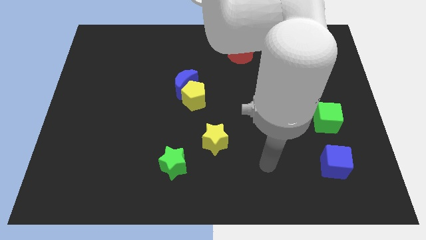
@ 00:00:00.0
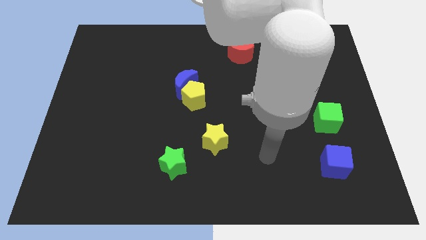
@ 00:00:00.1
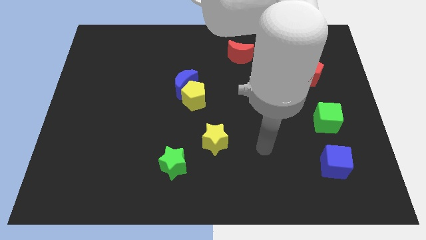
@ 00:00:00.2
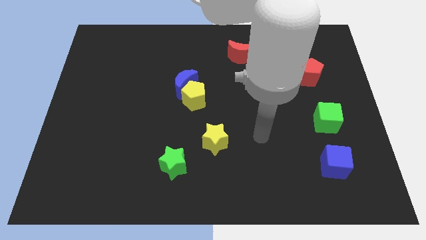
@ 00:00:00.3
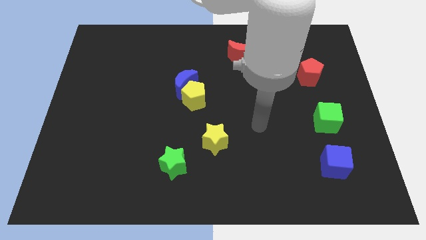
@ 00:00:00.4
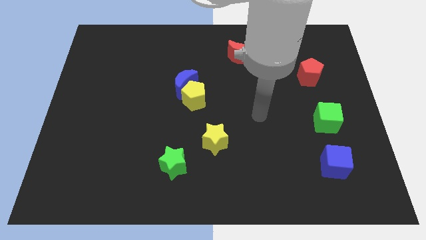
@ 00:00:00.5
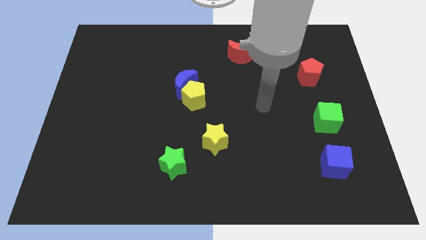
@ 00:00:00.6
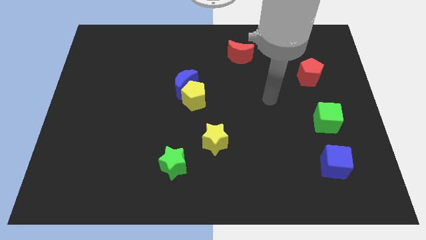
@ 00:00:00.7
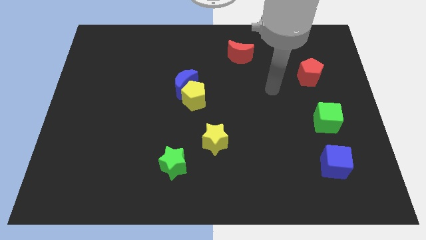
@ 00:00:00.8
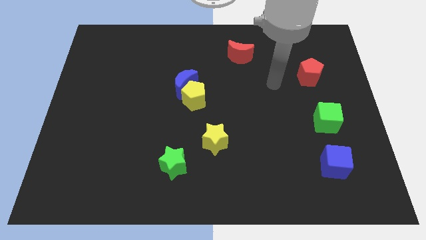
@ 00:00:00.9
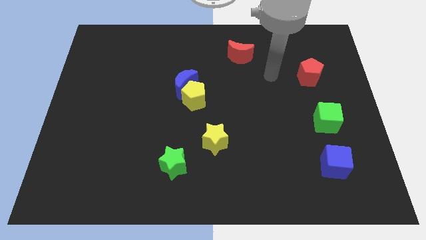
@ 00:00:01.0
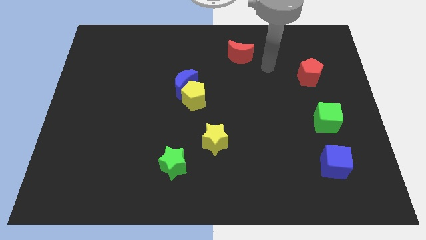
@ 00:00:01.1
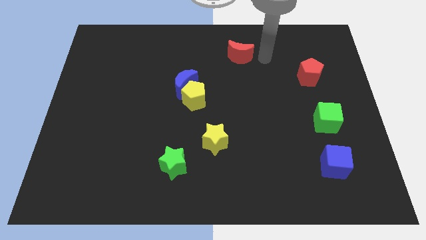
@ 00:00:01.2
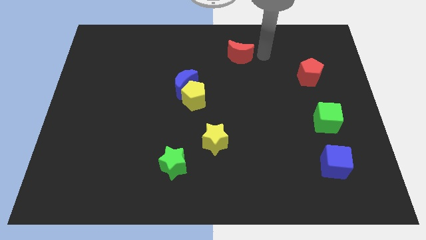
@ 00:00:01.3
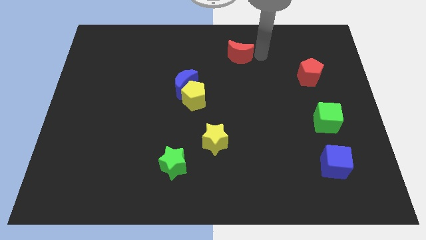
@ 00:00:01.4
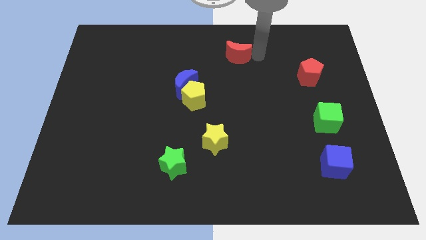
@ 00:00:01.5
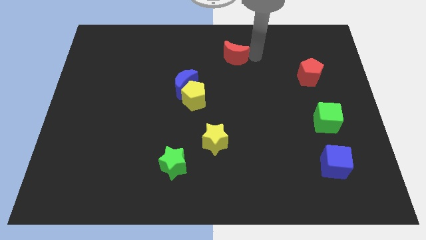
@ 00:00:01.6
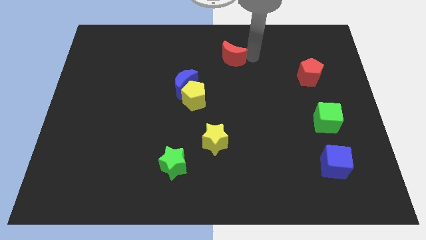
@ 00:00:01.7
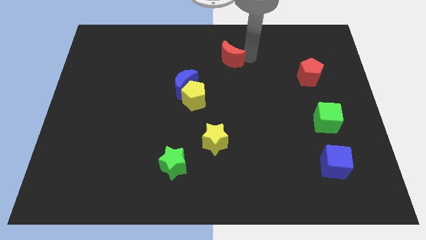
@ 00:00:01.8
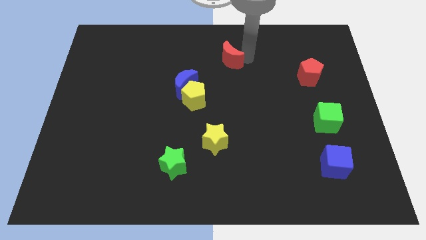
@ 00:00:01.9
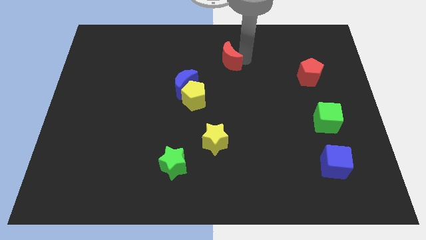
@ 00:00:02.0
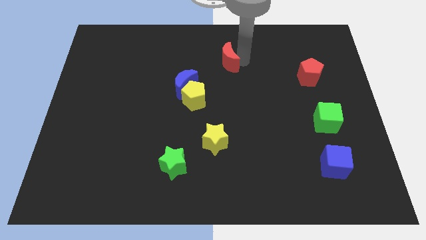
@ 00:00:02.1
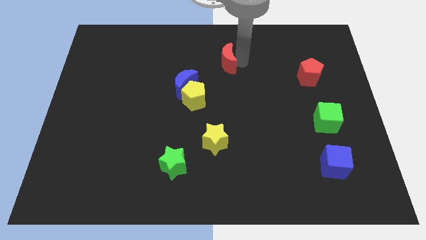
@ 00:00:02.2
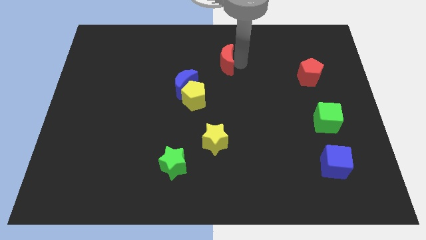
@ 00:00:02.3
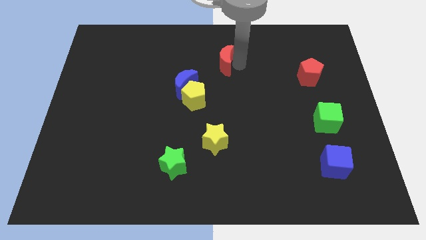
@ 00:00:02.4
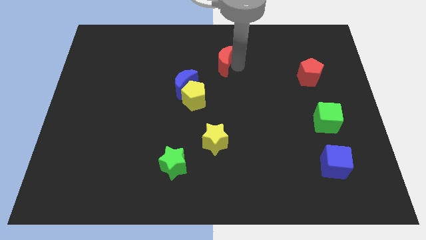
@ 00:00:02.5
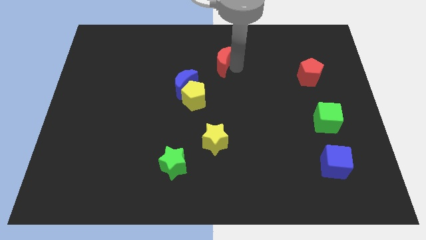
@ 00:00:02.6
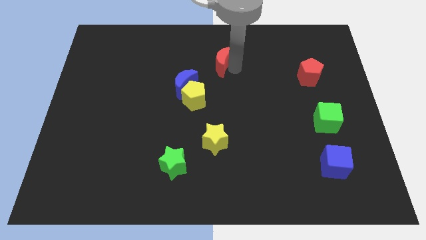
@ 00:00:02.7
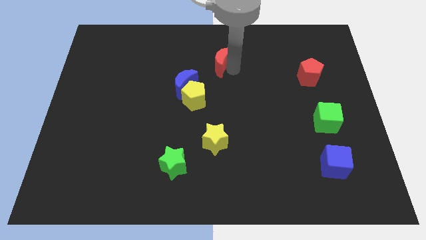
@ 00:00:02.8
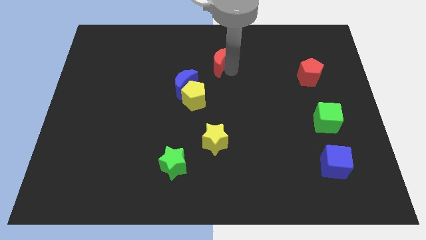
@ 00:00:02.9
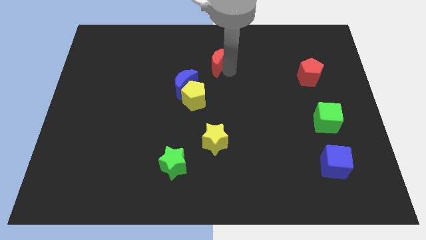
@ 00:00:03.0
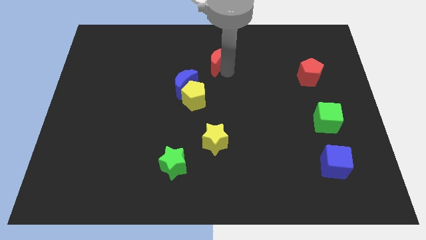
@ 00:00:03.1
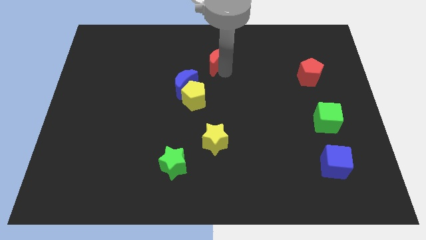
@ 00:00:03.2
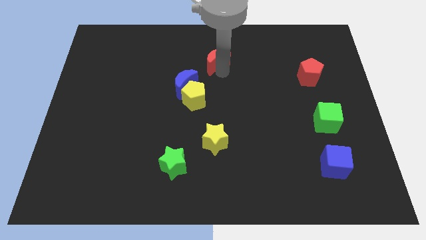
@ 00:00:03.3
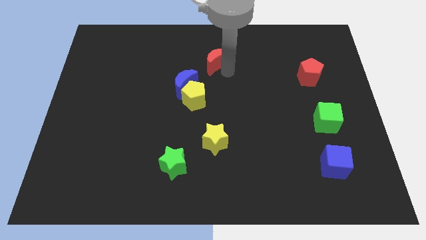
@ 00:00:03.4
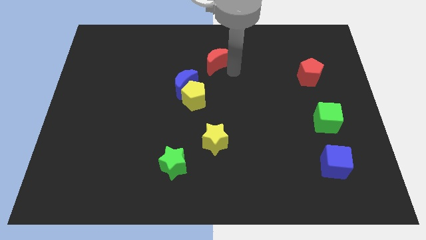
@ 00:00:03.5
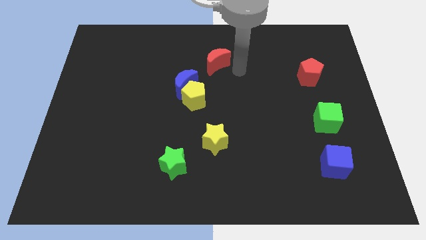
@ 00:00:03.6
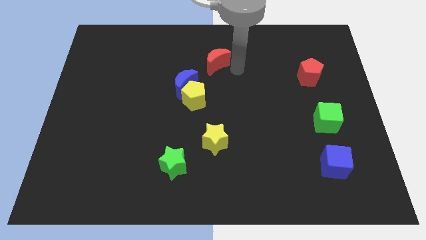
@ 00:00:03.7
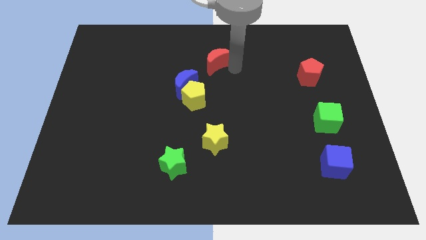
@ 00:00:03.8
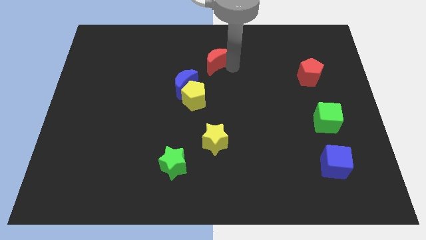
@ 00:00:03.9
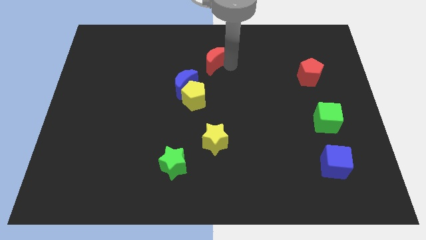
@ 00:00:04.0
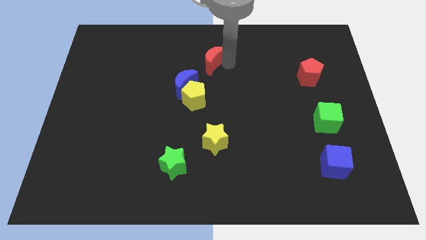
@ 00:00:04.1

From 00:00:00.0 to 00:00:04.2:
move the red moon to the left a little bit

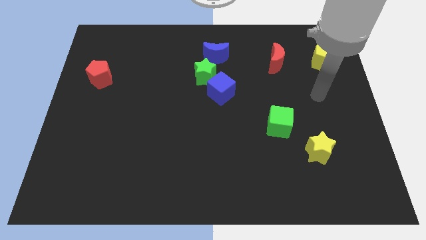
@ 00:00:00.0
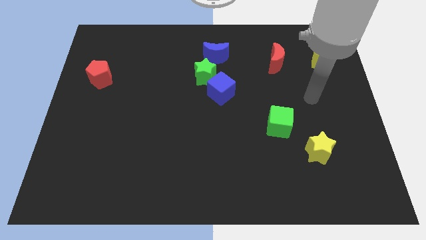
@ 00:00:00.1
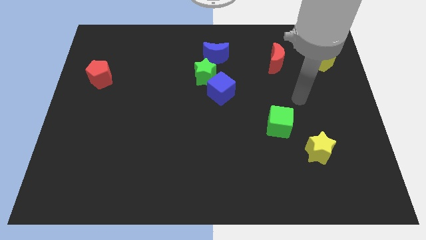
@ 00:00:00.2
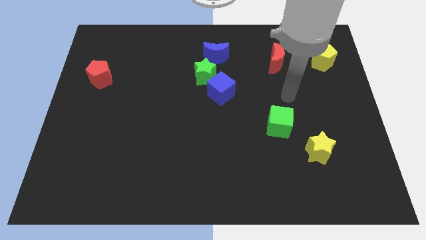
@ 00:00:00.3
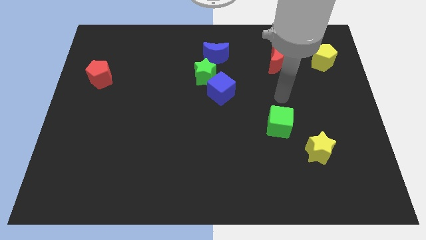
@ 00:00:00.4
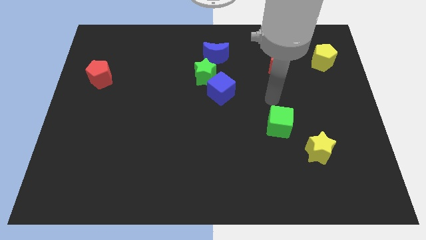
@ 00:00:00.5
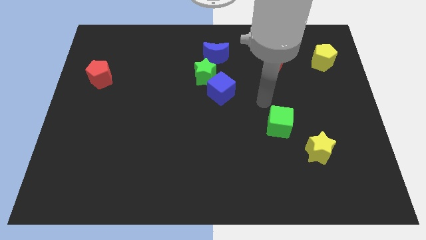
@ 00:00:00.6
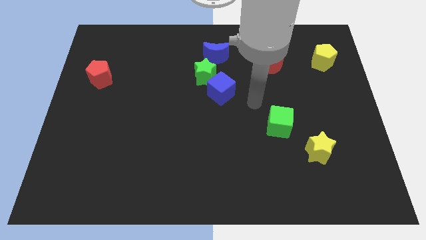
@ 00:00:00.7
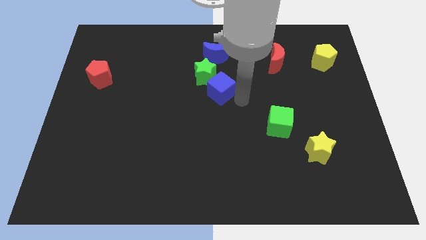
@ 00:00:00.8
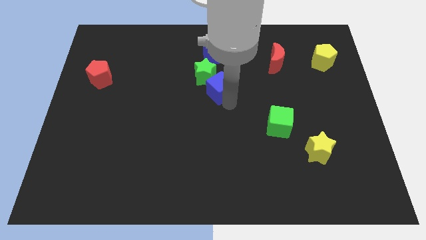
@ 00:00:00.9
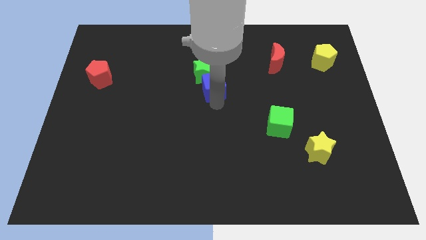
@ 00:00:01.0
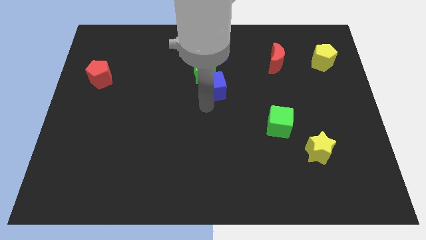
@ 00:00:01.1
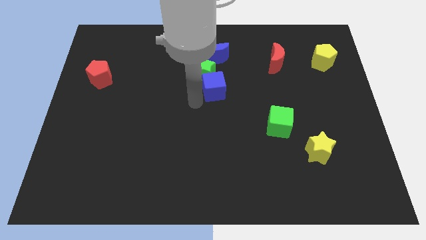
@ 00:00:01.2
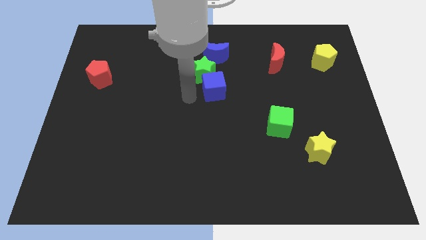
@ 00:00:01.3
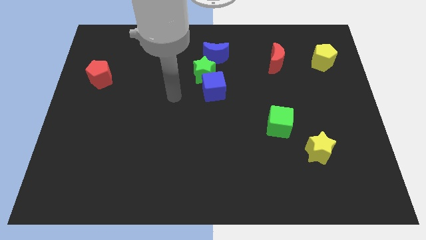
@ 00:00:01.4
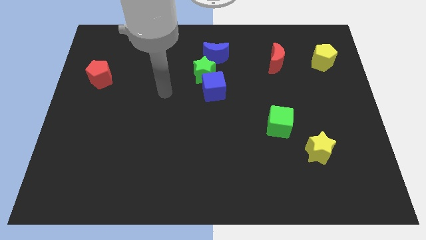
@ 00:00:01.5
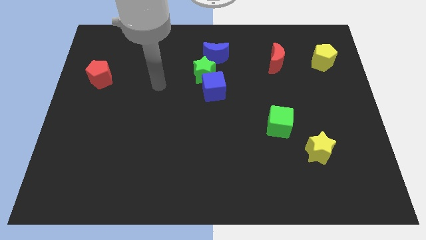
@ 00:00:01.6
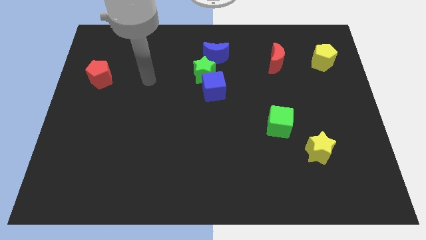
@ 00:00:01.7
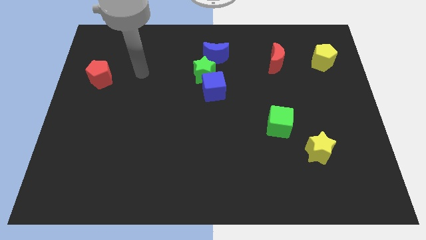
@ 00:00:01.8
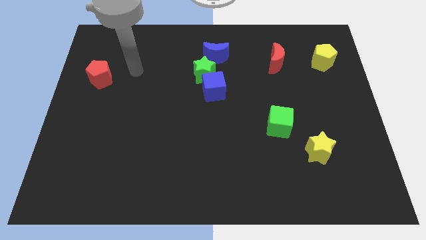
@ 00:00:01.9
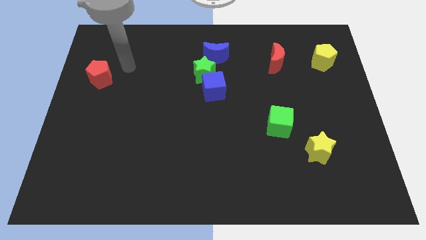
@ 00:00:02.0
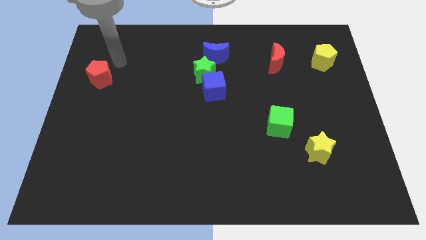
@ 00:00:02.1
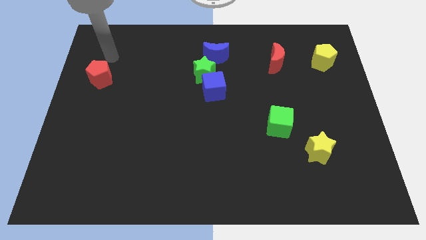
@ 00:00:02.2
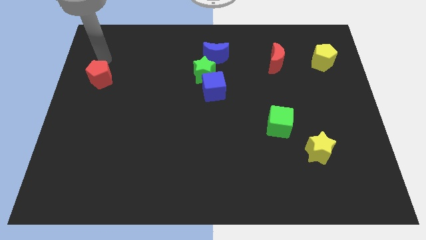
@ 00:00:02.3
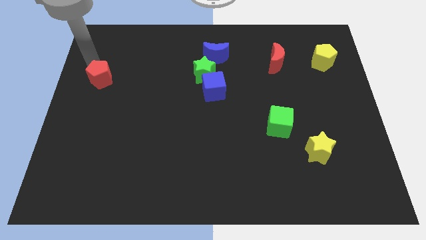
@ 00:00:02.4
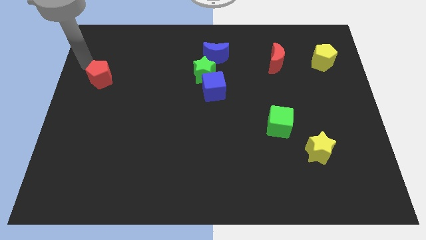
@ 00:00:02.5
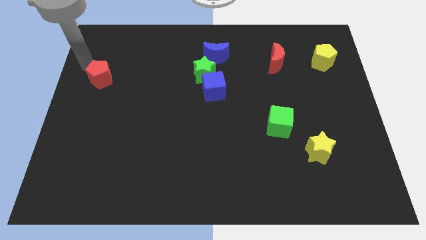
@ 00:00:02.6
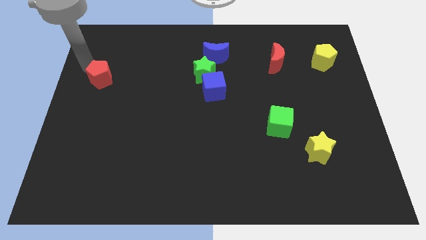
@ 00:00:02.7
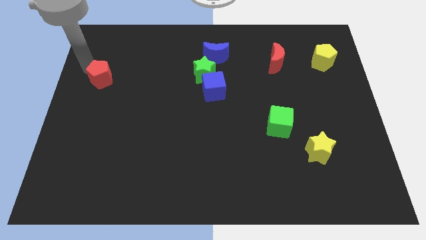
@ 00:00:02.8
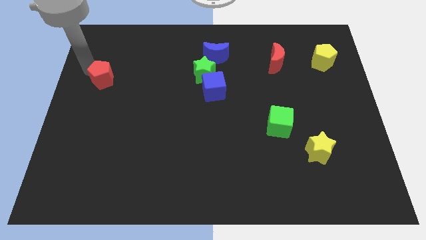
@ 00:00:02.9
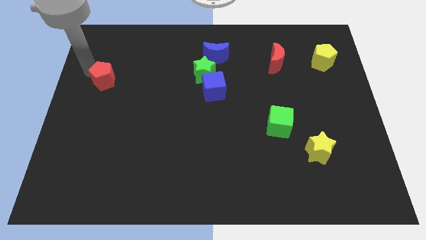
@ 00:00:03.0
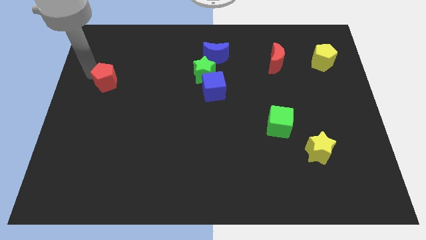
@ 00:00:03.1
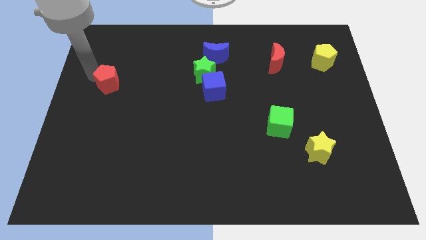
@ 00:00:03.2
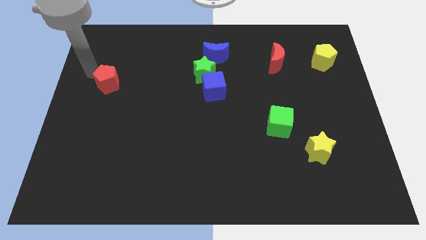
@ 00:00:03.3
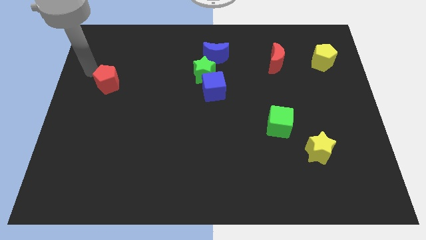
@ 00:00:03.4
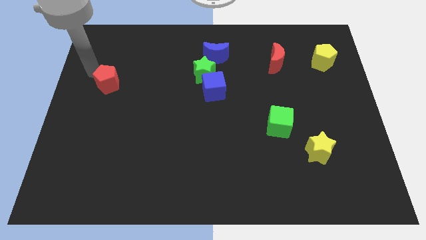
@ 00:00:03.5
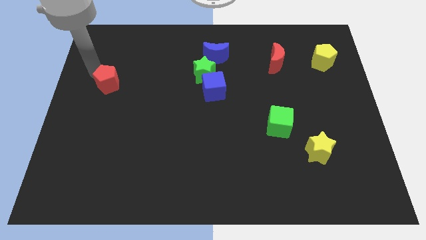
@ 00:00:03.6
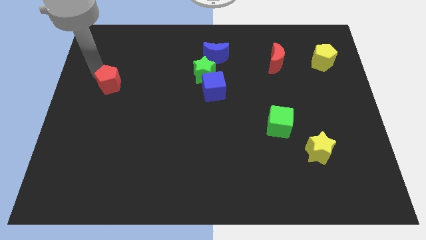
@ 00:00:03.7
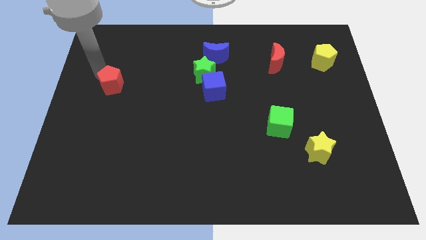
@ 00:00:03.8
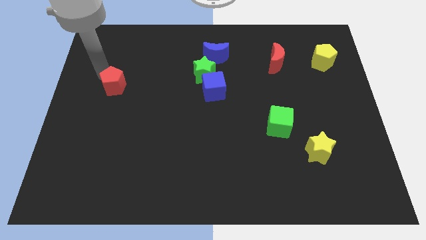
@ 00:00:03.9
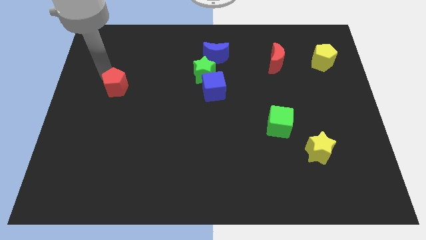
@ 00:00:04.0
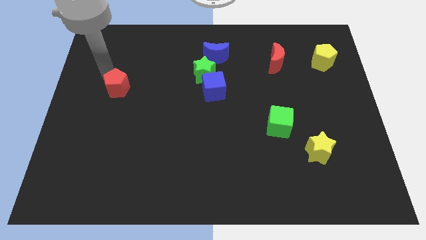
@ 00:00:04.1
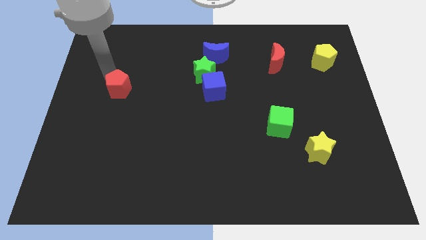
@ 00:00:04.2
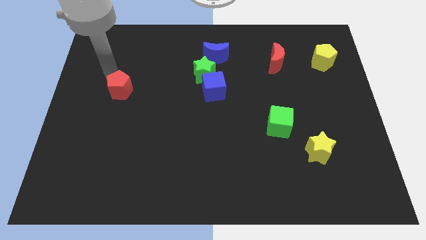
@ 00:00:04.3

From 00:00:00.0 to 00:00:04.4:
slightly push the red pentagon down and to the right
